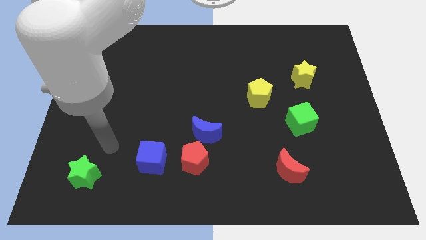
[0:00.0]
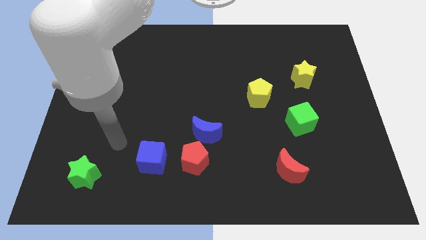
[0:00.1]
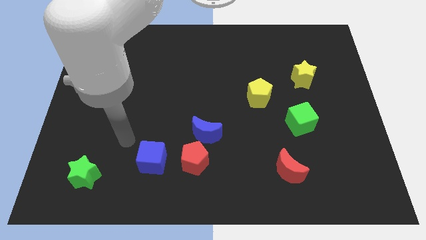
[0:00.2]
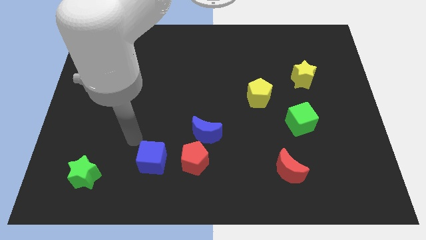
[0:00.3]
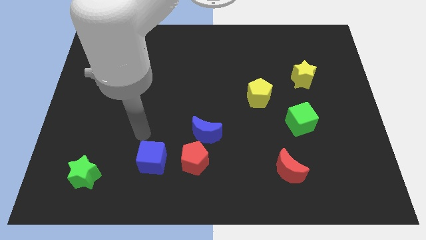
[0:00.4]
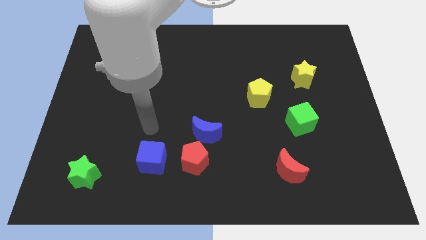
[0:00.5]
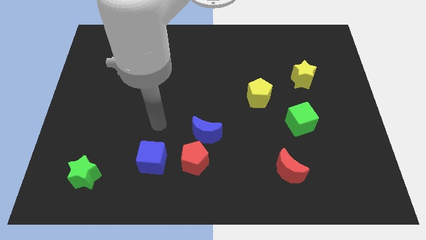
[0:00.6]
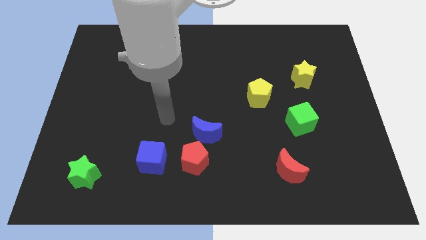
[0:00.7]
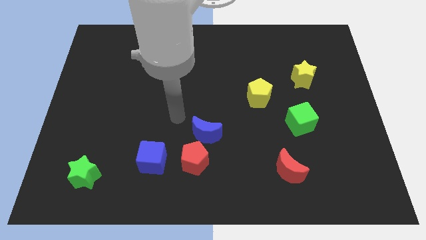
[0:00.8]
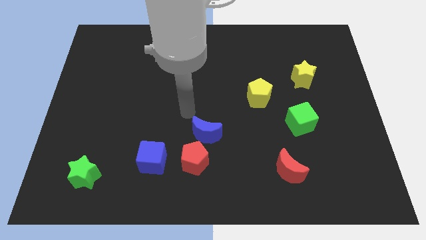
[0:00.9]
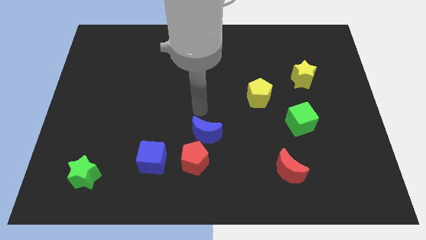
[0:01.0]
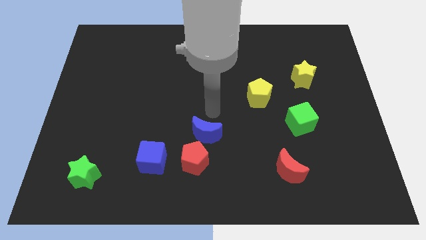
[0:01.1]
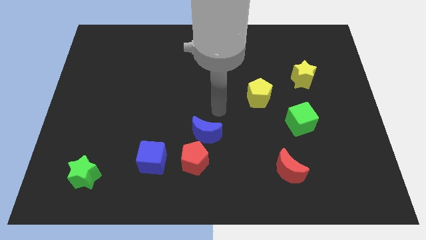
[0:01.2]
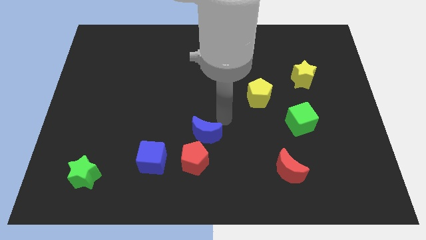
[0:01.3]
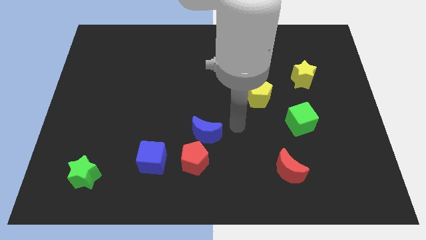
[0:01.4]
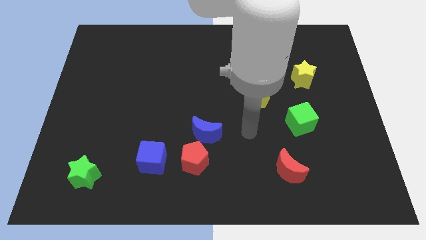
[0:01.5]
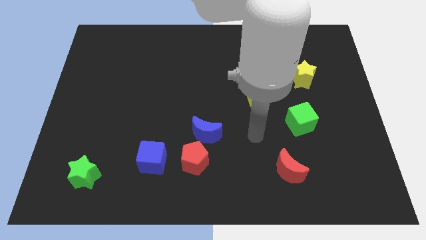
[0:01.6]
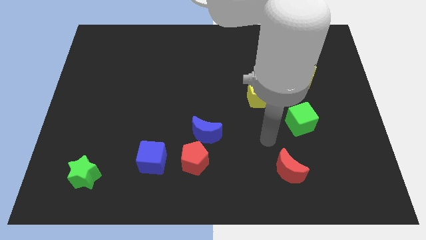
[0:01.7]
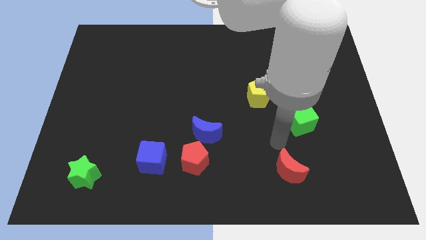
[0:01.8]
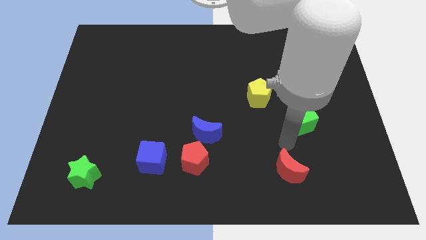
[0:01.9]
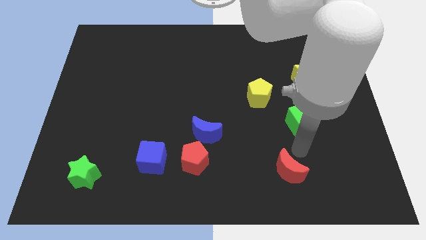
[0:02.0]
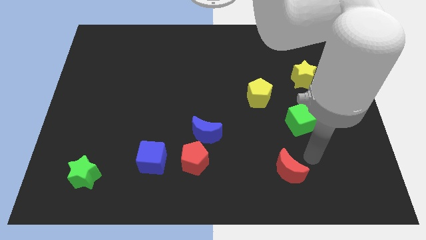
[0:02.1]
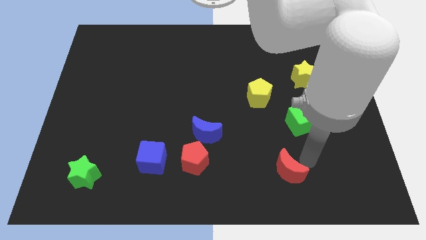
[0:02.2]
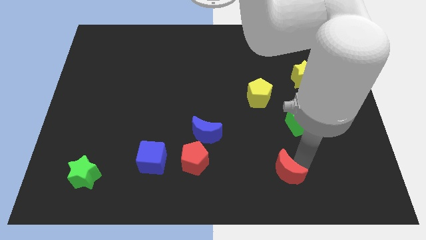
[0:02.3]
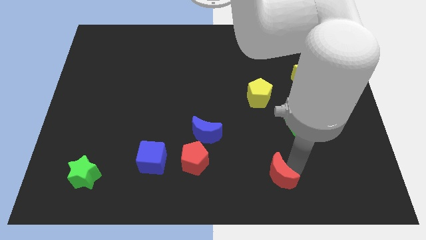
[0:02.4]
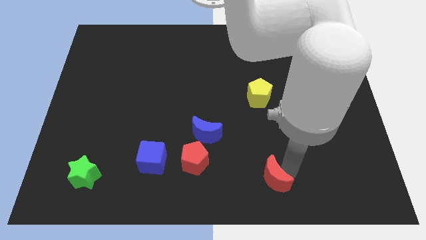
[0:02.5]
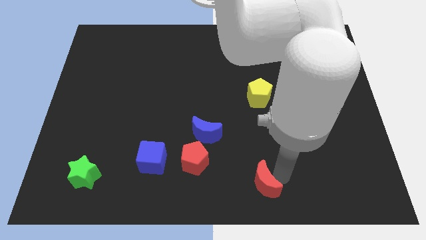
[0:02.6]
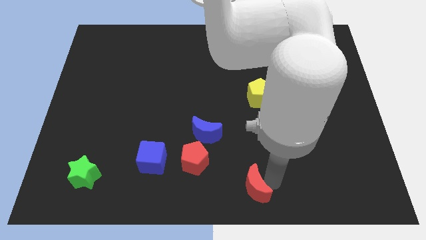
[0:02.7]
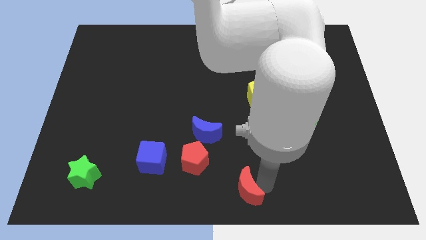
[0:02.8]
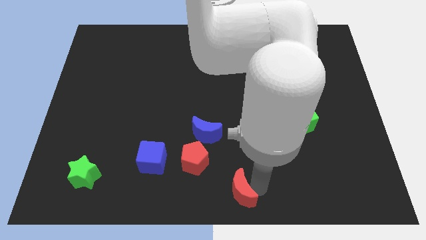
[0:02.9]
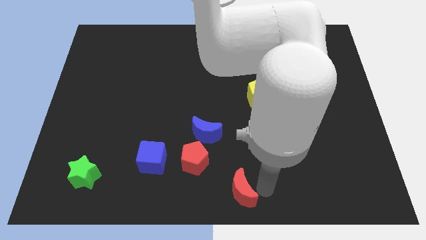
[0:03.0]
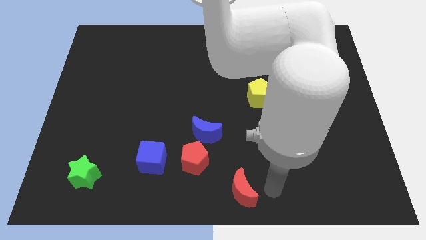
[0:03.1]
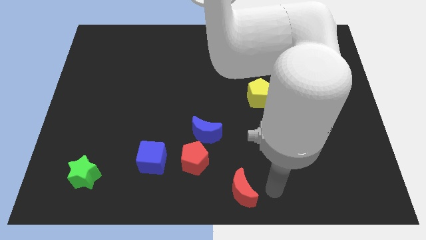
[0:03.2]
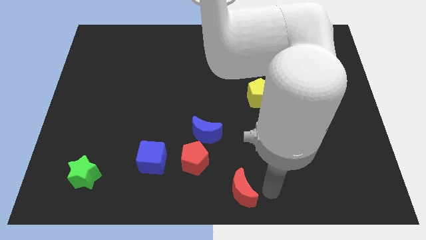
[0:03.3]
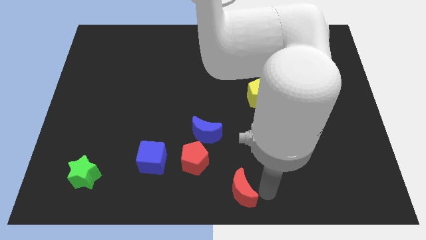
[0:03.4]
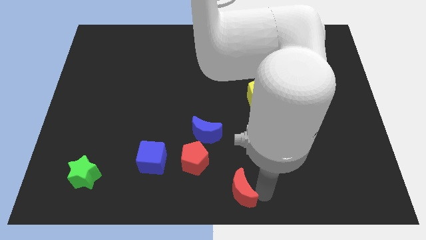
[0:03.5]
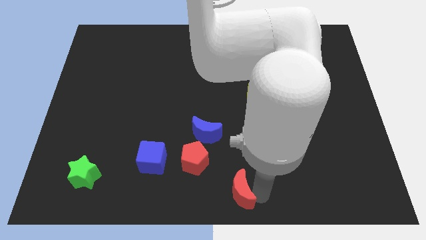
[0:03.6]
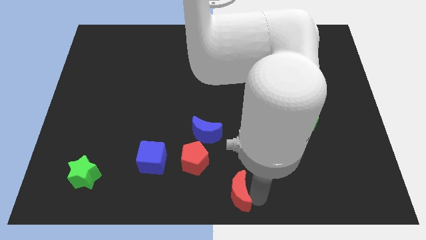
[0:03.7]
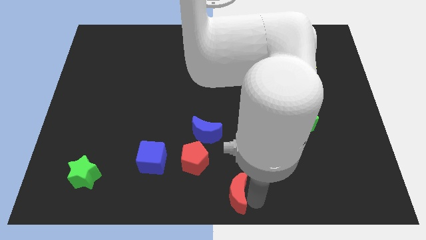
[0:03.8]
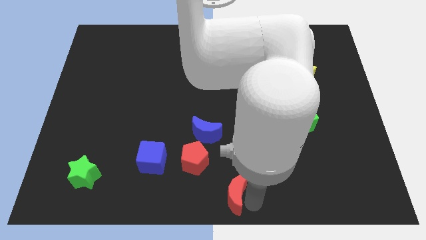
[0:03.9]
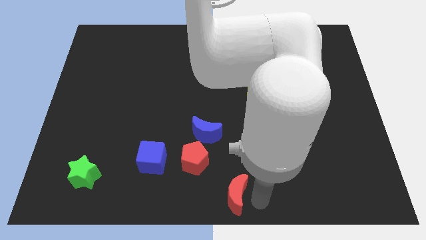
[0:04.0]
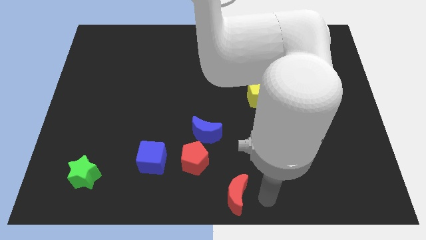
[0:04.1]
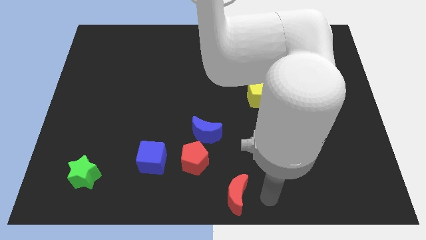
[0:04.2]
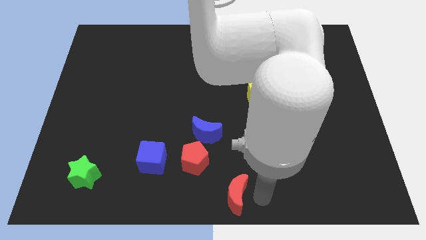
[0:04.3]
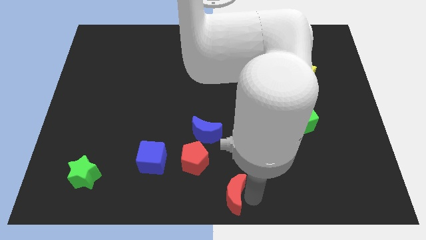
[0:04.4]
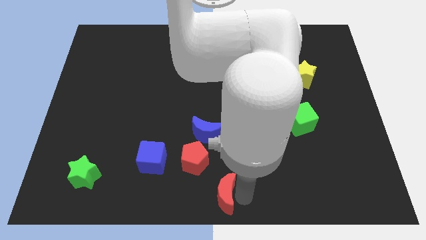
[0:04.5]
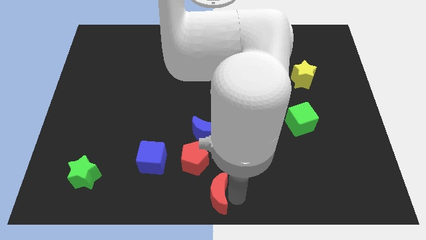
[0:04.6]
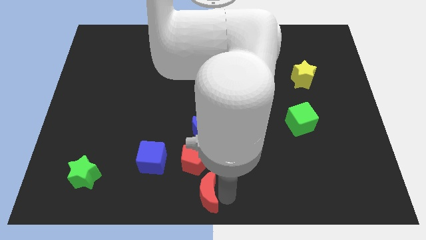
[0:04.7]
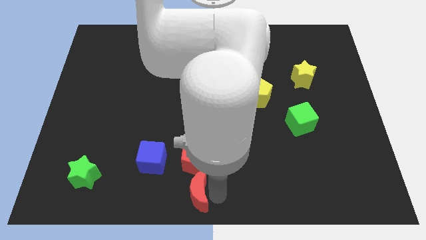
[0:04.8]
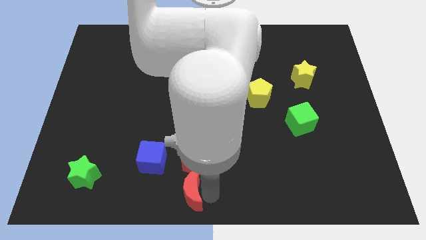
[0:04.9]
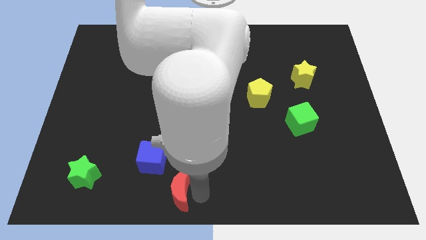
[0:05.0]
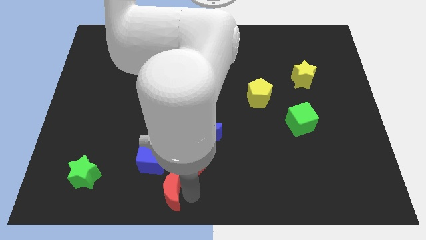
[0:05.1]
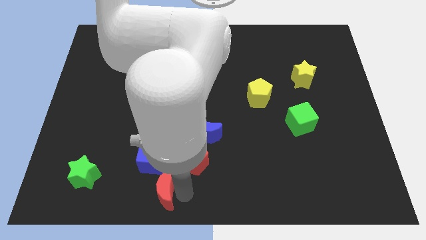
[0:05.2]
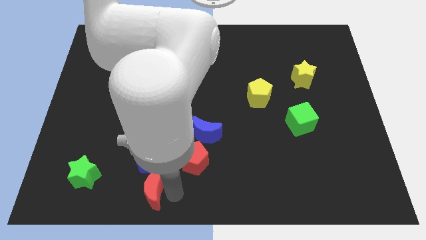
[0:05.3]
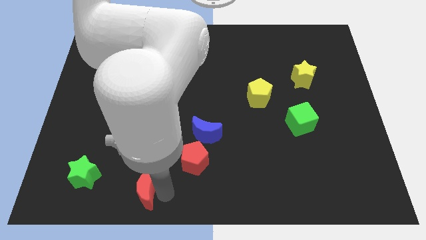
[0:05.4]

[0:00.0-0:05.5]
push the red moon to the bottom left side of the blue cube

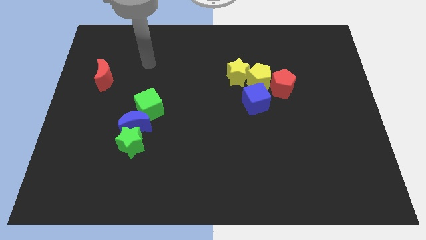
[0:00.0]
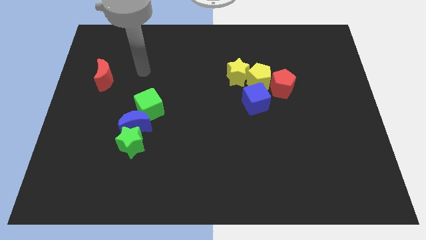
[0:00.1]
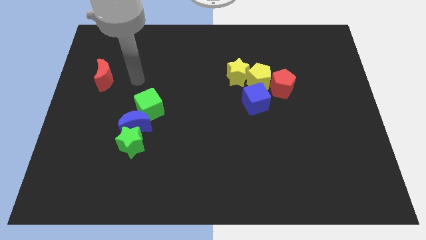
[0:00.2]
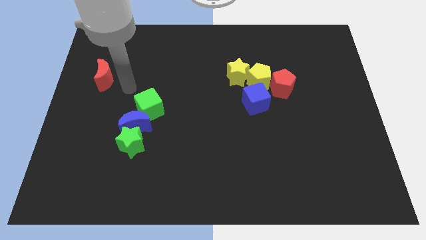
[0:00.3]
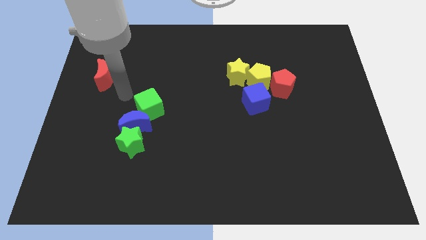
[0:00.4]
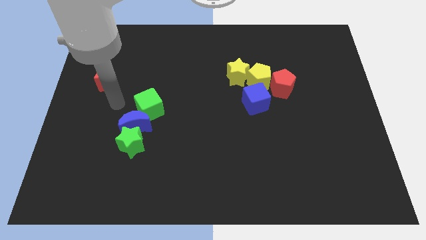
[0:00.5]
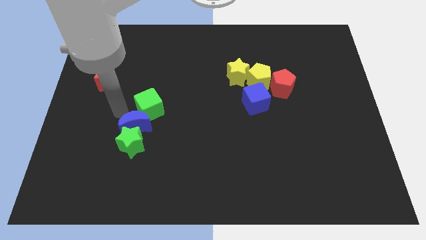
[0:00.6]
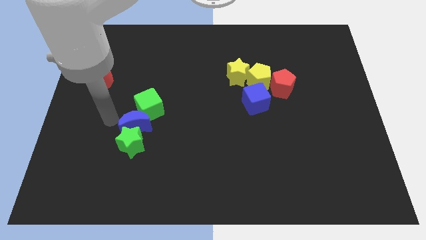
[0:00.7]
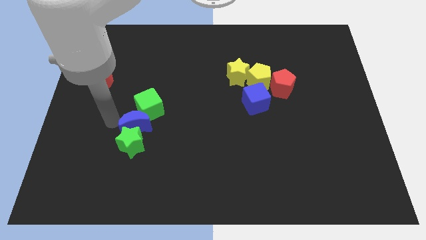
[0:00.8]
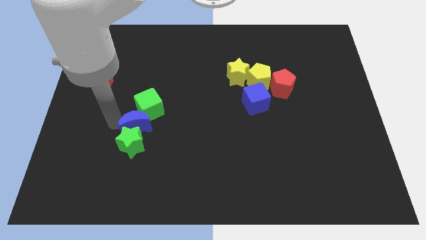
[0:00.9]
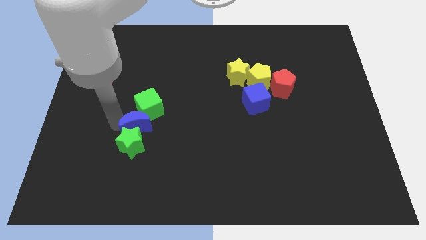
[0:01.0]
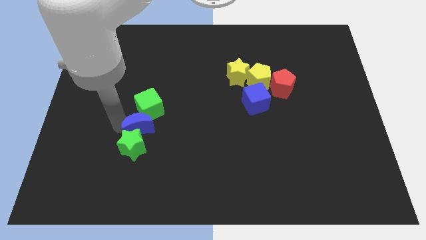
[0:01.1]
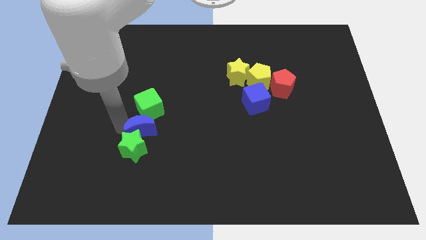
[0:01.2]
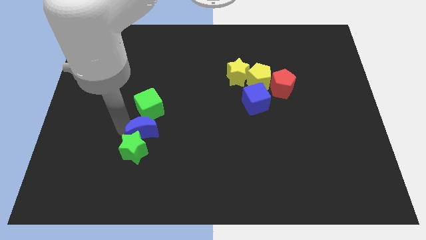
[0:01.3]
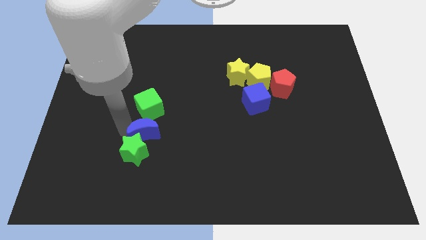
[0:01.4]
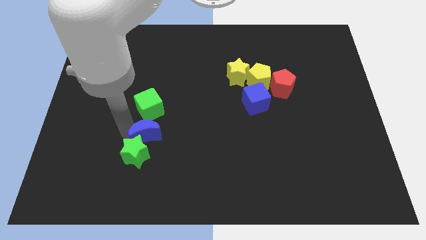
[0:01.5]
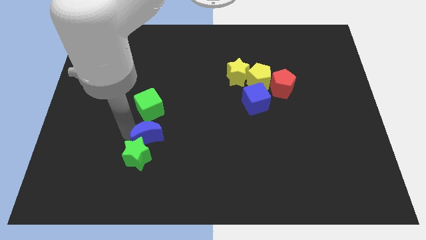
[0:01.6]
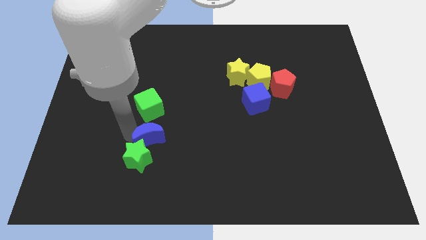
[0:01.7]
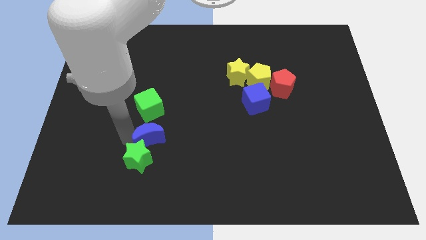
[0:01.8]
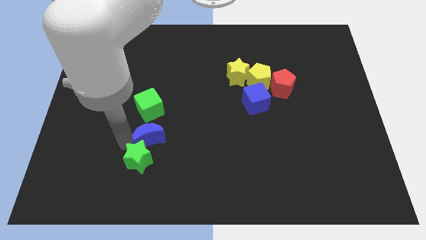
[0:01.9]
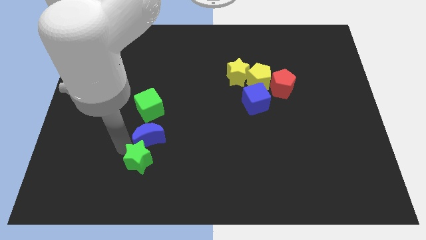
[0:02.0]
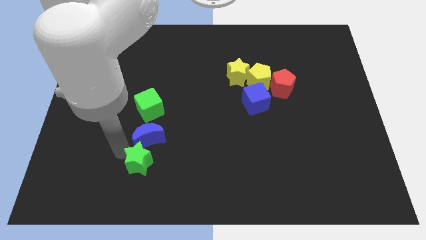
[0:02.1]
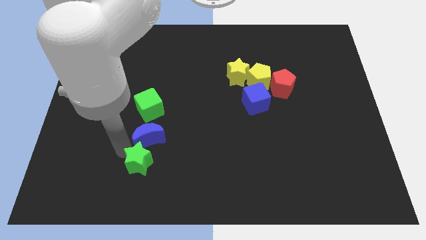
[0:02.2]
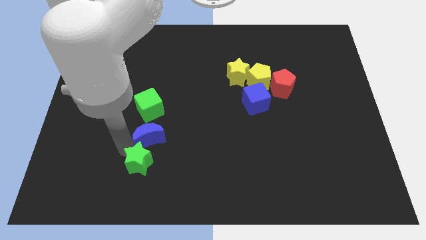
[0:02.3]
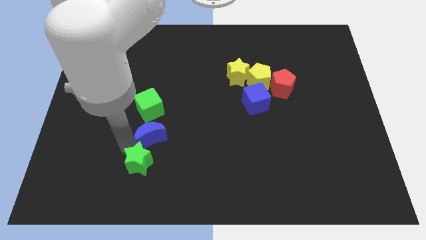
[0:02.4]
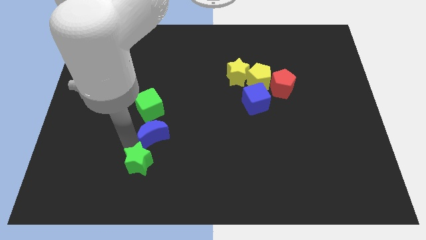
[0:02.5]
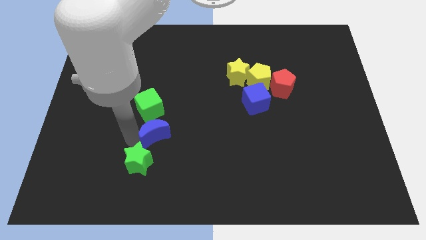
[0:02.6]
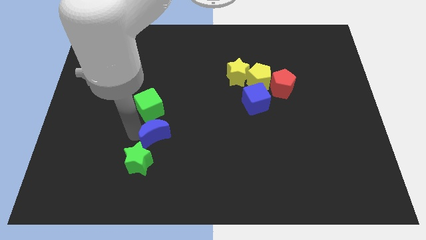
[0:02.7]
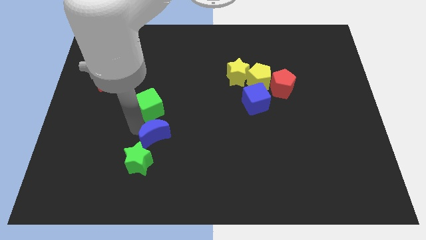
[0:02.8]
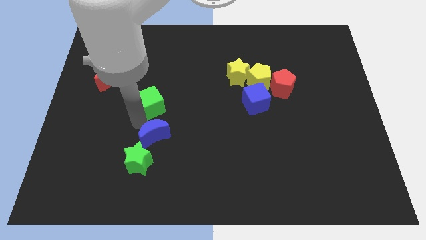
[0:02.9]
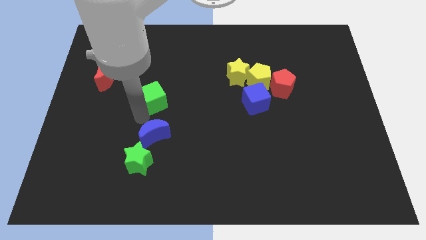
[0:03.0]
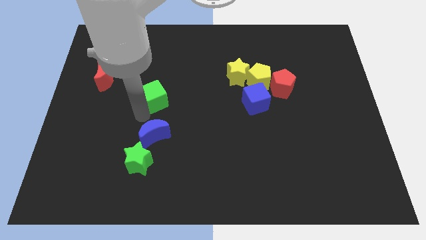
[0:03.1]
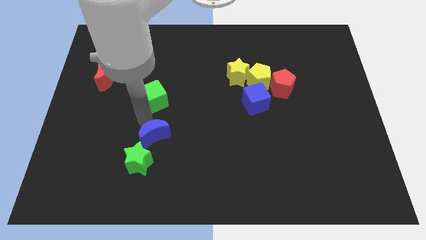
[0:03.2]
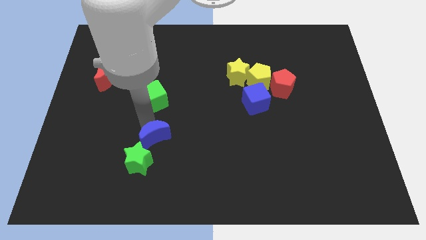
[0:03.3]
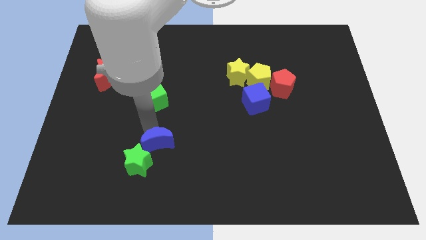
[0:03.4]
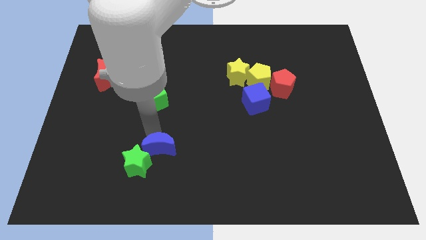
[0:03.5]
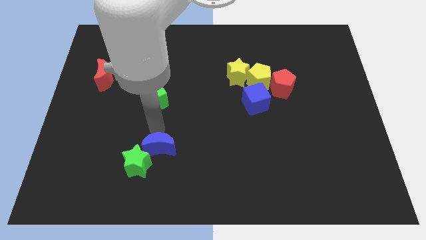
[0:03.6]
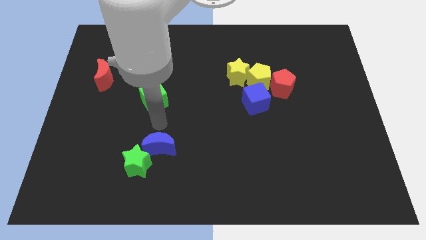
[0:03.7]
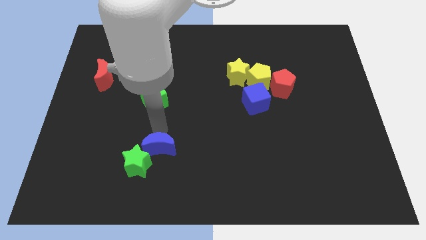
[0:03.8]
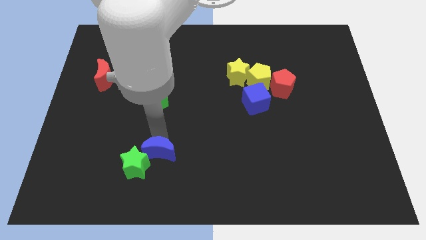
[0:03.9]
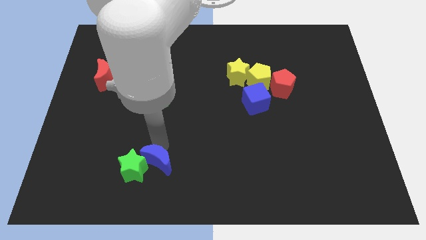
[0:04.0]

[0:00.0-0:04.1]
slide the blue moon to the bottom right of the green star
